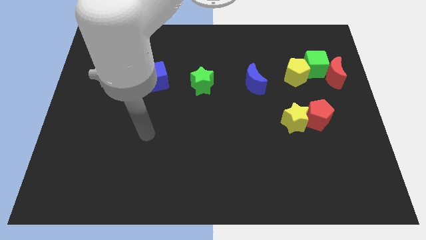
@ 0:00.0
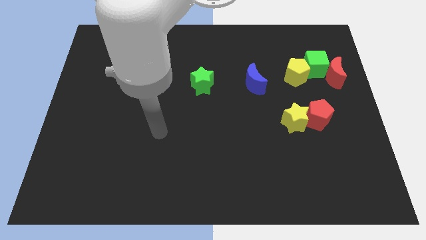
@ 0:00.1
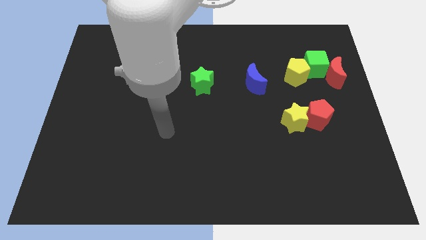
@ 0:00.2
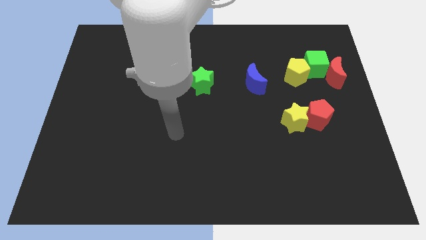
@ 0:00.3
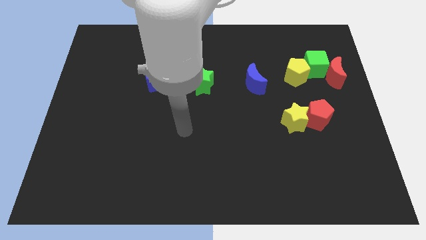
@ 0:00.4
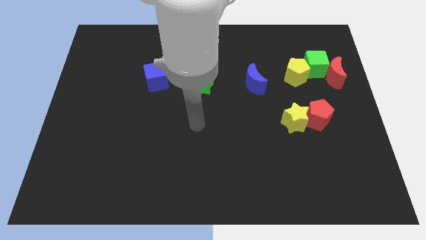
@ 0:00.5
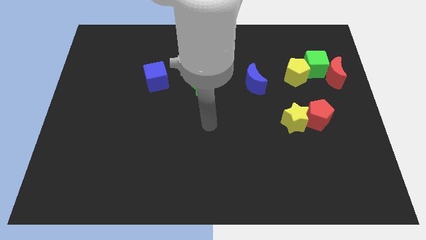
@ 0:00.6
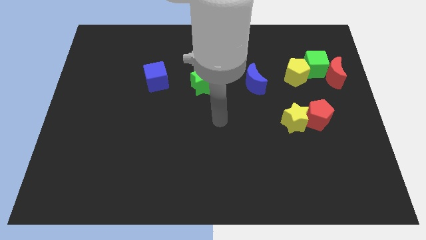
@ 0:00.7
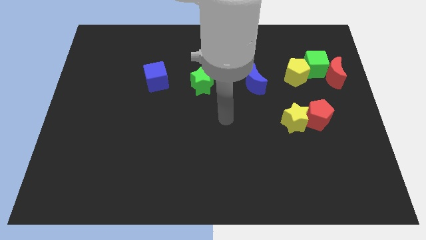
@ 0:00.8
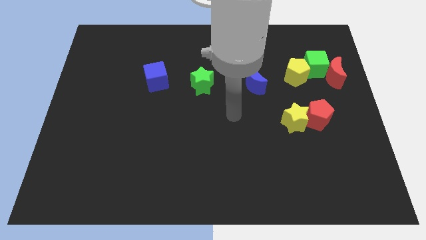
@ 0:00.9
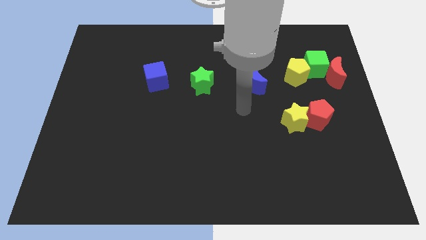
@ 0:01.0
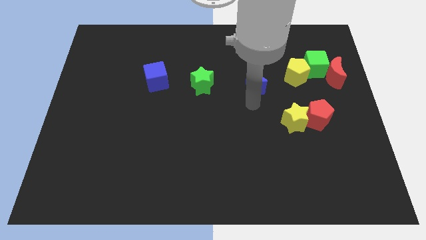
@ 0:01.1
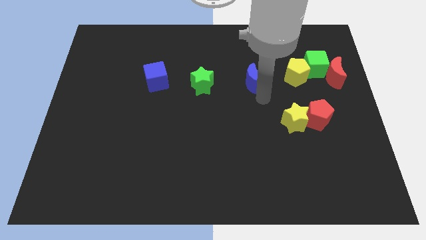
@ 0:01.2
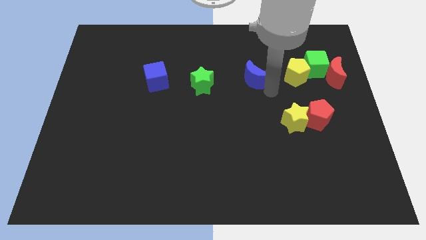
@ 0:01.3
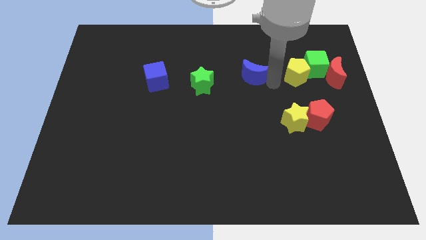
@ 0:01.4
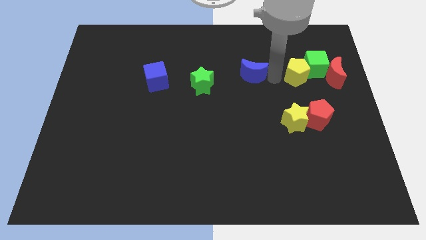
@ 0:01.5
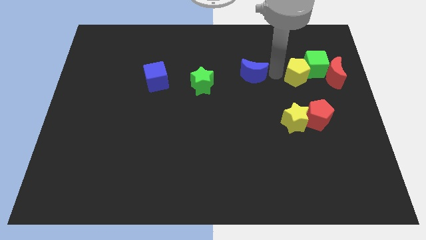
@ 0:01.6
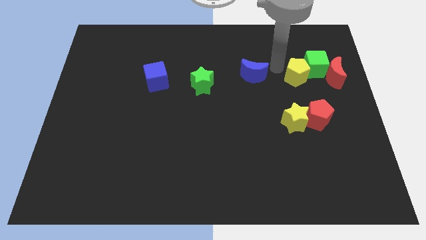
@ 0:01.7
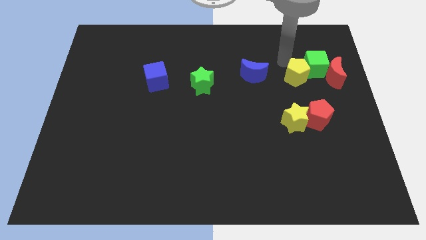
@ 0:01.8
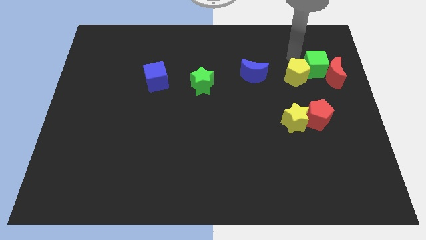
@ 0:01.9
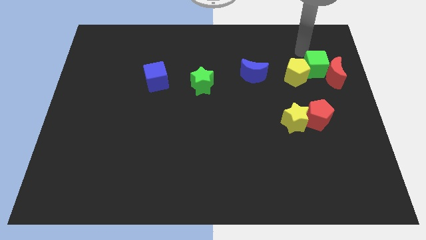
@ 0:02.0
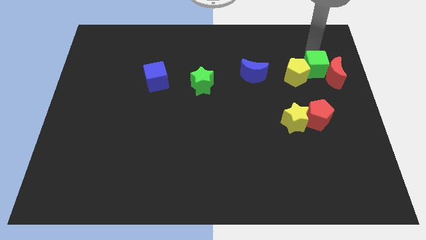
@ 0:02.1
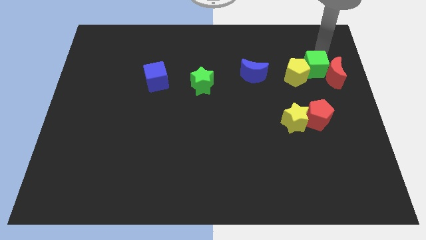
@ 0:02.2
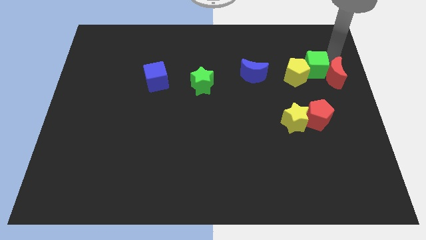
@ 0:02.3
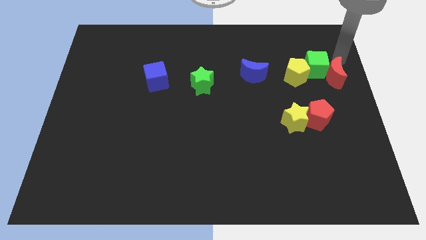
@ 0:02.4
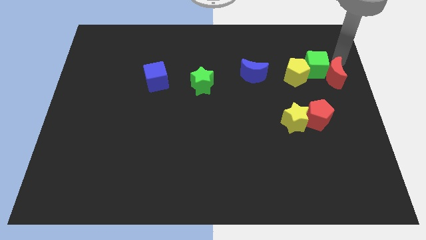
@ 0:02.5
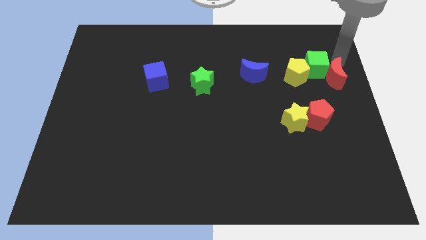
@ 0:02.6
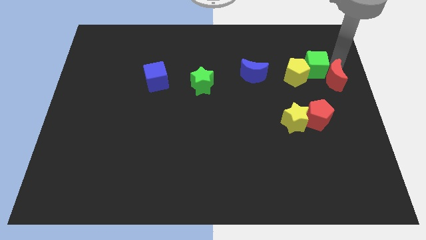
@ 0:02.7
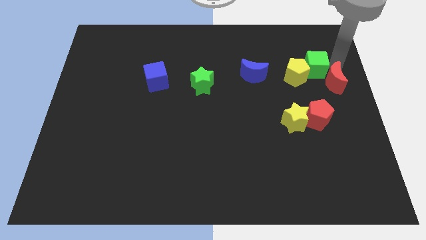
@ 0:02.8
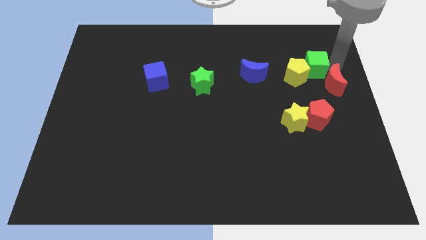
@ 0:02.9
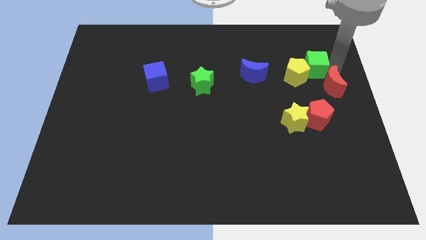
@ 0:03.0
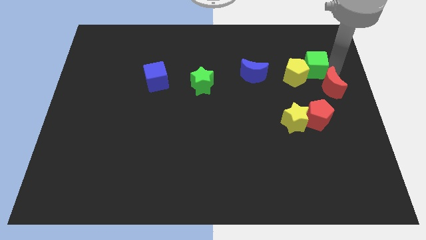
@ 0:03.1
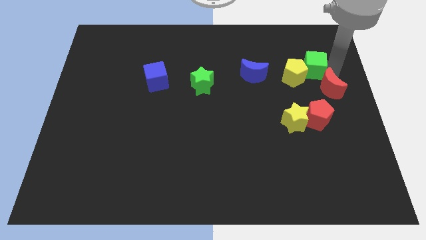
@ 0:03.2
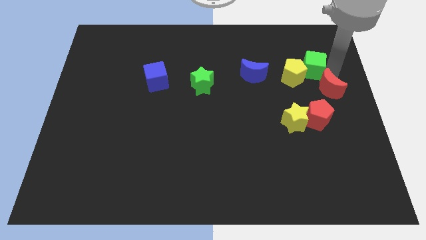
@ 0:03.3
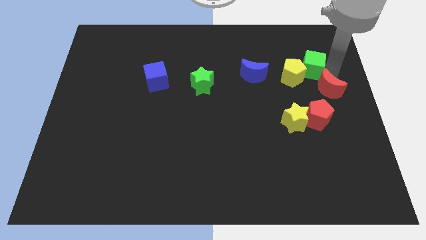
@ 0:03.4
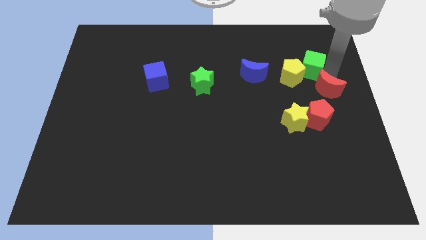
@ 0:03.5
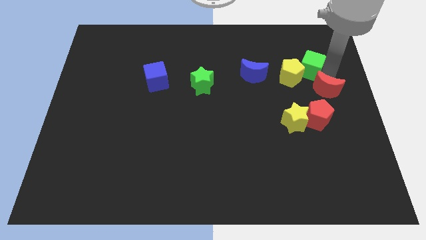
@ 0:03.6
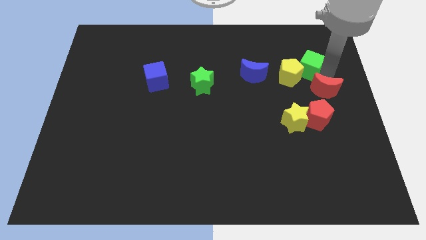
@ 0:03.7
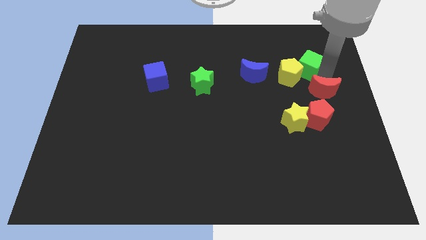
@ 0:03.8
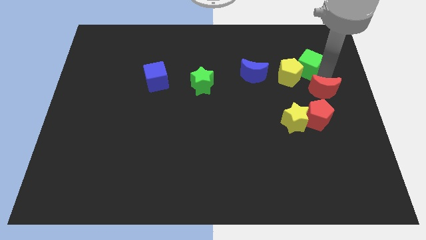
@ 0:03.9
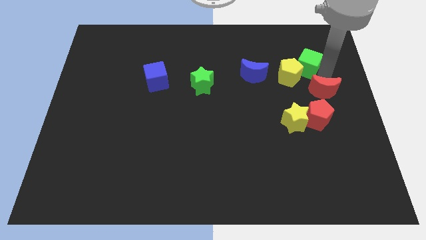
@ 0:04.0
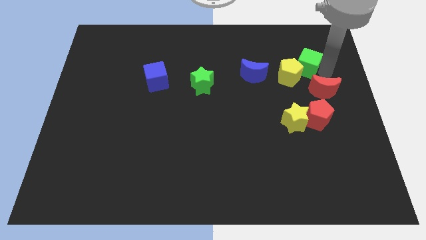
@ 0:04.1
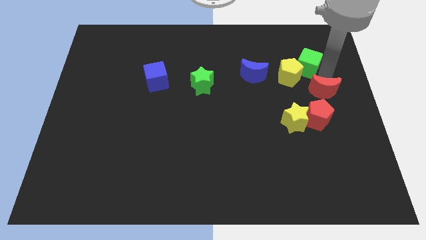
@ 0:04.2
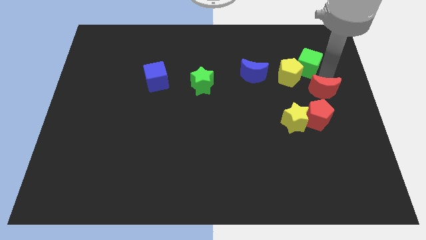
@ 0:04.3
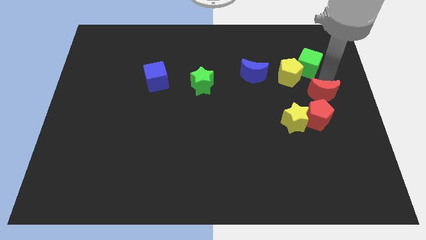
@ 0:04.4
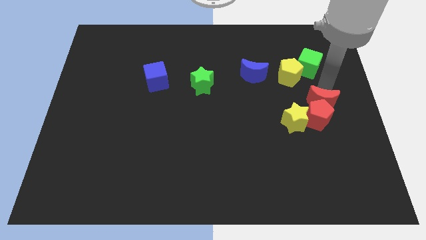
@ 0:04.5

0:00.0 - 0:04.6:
push the red moon to the red pentagon

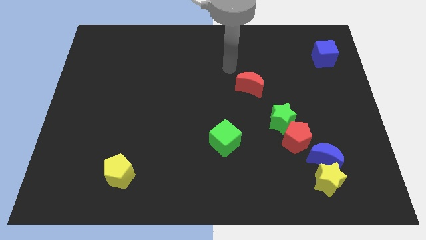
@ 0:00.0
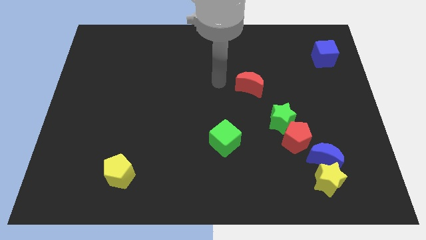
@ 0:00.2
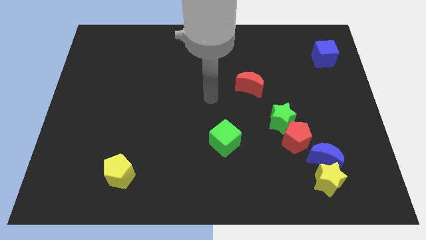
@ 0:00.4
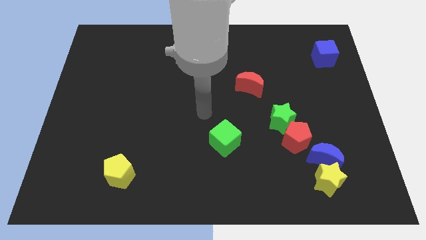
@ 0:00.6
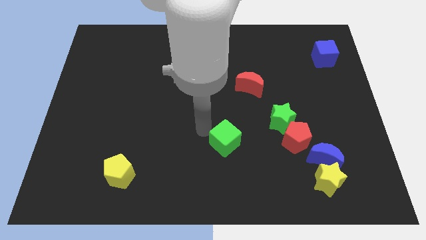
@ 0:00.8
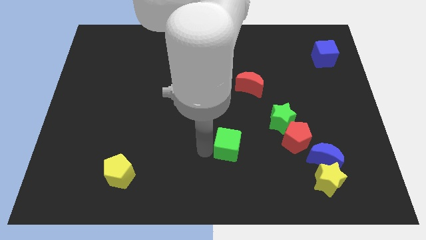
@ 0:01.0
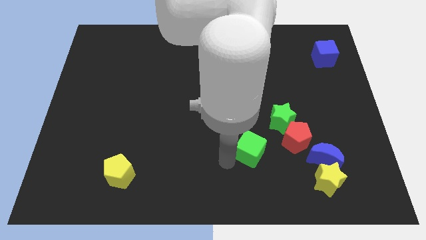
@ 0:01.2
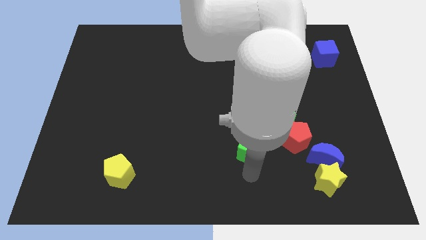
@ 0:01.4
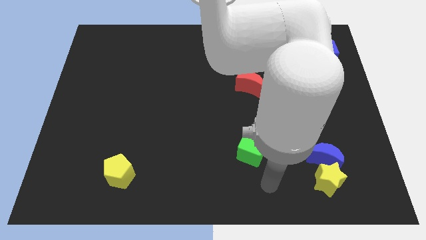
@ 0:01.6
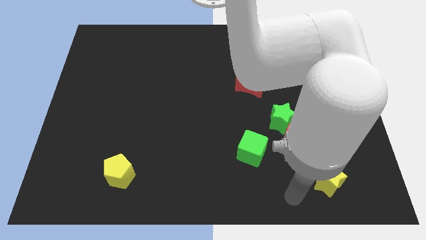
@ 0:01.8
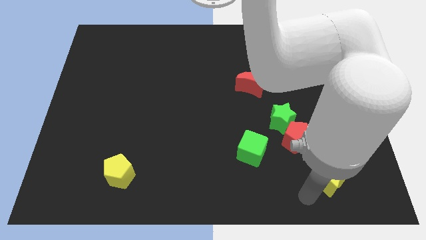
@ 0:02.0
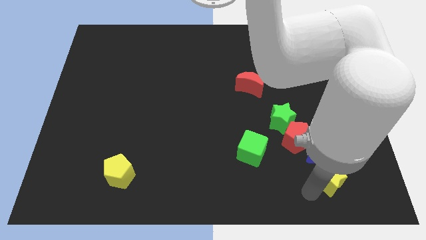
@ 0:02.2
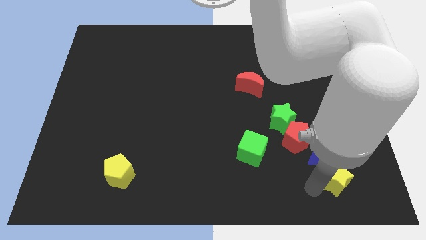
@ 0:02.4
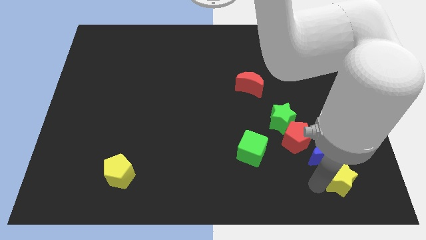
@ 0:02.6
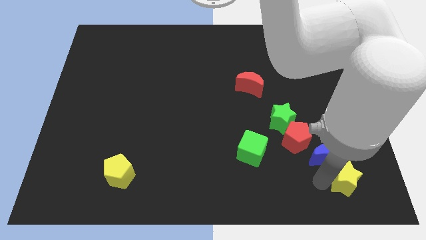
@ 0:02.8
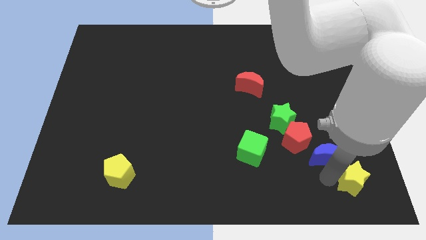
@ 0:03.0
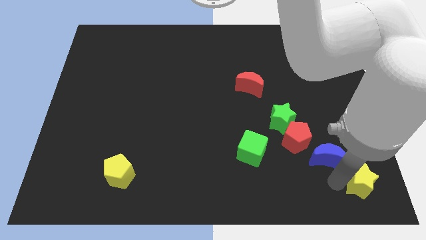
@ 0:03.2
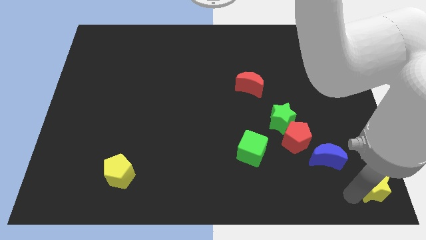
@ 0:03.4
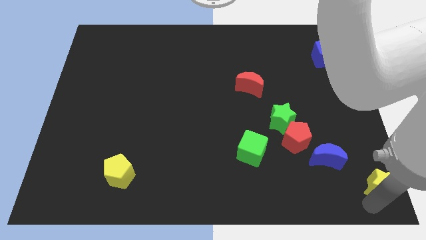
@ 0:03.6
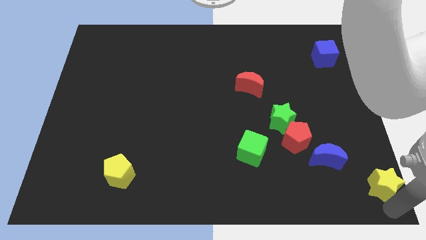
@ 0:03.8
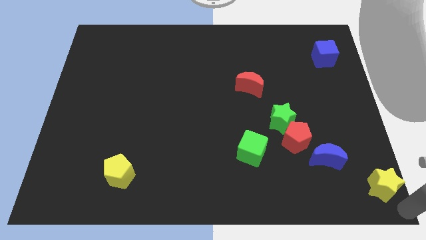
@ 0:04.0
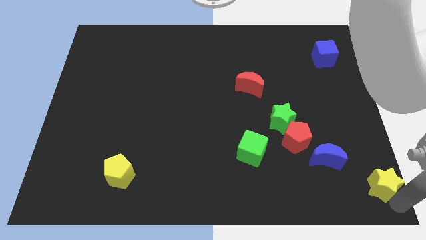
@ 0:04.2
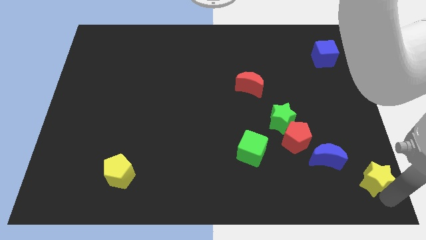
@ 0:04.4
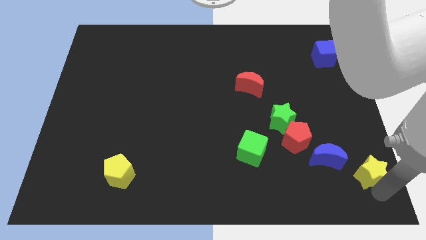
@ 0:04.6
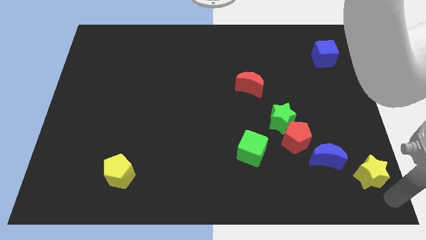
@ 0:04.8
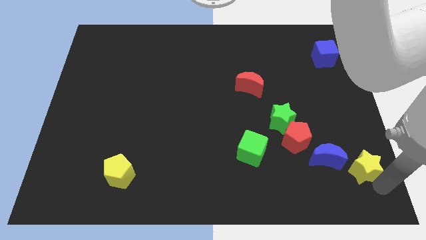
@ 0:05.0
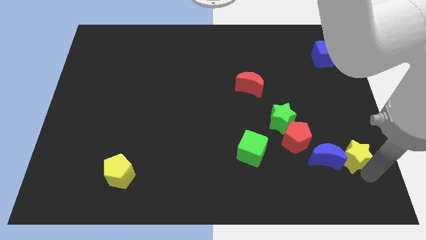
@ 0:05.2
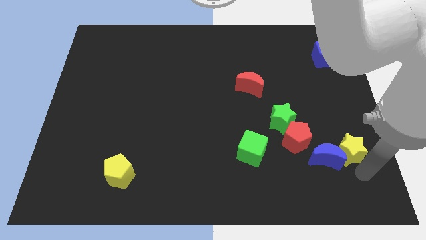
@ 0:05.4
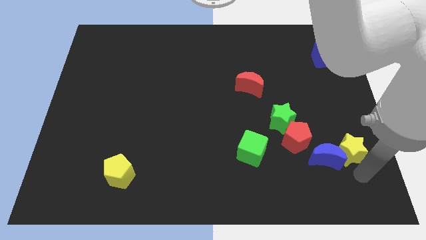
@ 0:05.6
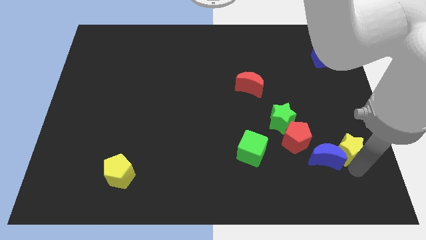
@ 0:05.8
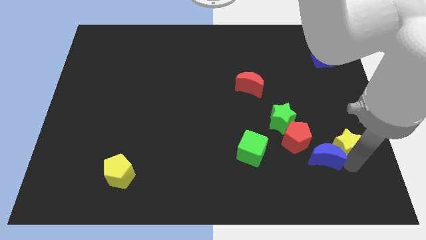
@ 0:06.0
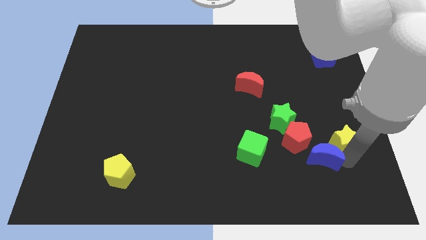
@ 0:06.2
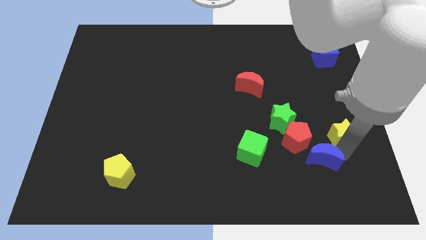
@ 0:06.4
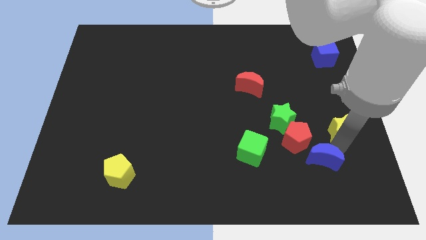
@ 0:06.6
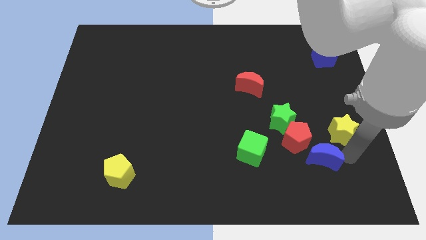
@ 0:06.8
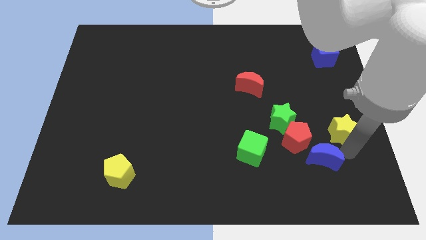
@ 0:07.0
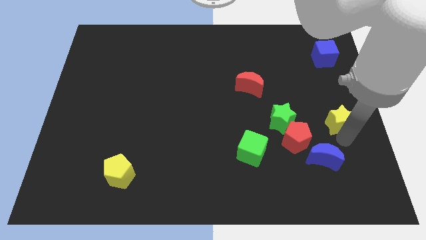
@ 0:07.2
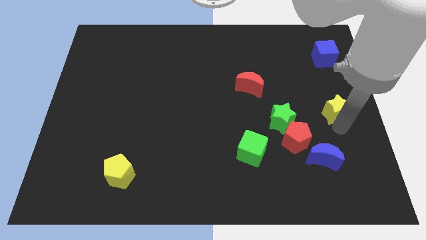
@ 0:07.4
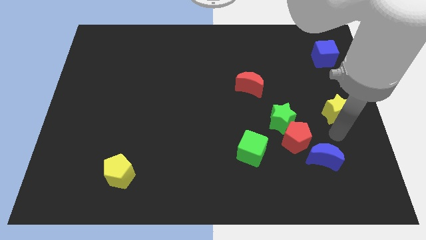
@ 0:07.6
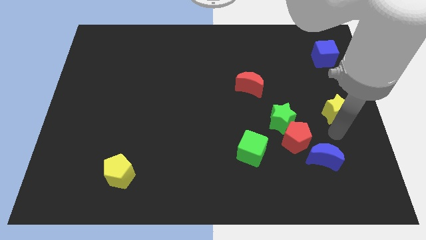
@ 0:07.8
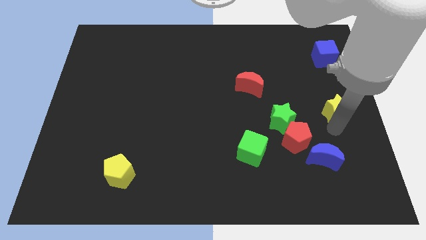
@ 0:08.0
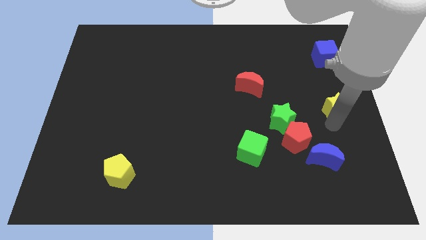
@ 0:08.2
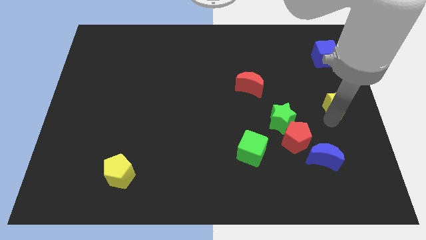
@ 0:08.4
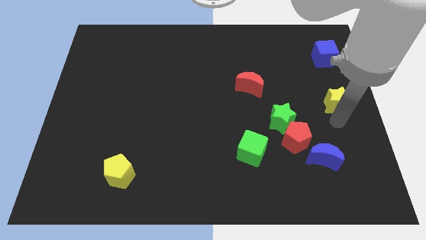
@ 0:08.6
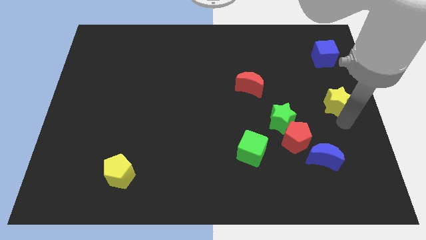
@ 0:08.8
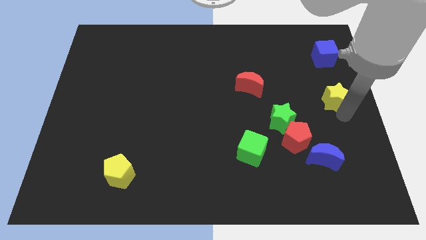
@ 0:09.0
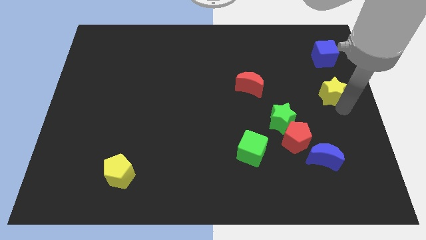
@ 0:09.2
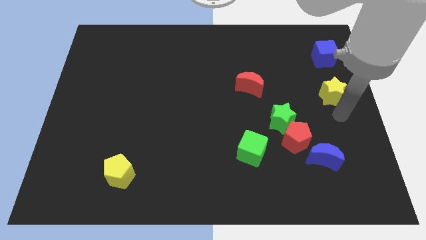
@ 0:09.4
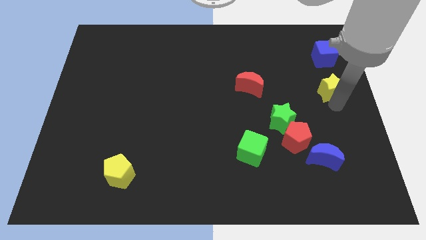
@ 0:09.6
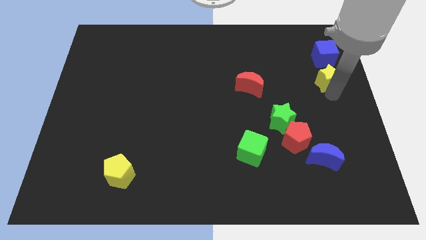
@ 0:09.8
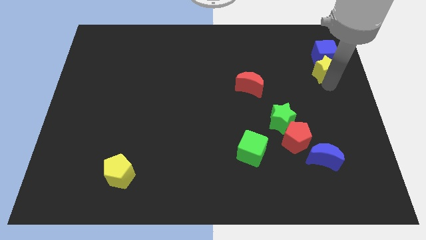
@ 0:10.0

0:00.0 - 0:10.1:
slide the yellow star towards the blue cube
